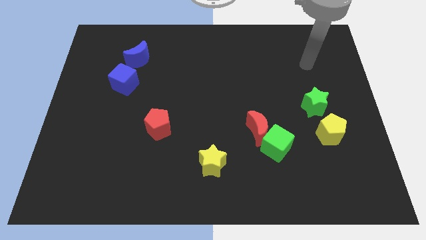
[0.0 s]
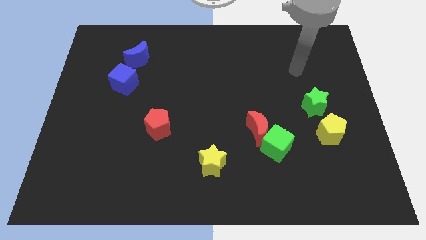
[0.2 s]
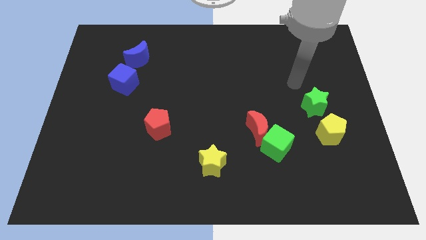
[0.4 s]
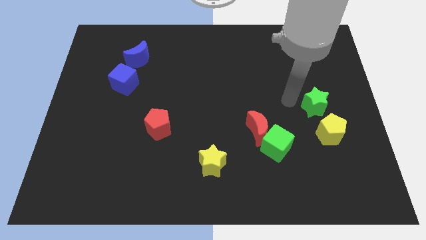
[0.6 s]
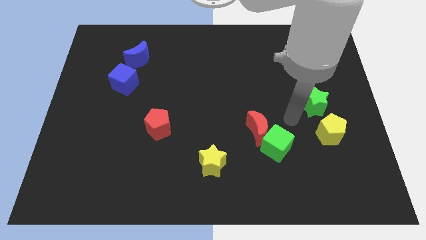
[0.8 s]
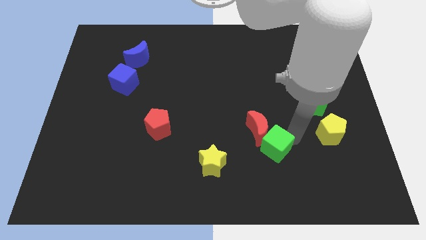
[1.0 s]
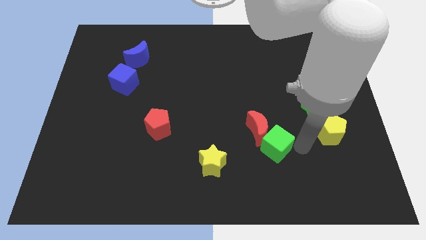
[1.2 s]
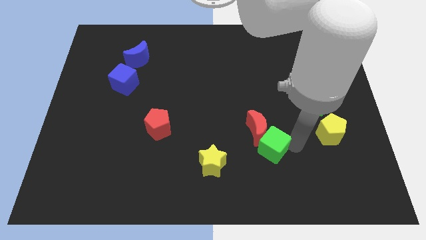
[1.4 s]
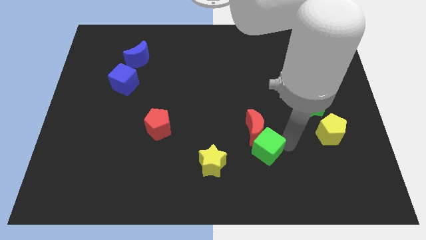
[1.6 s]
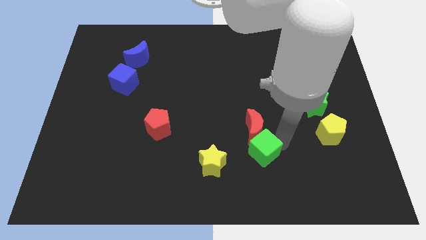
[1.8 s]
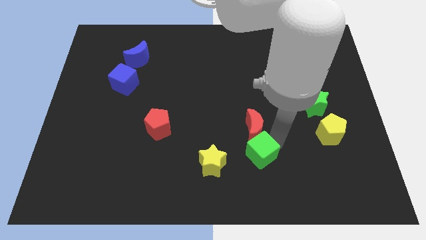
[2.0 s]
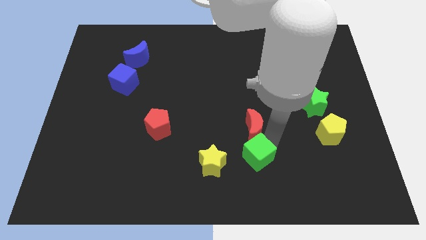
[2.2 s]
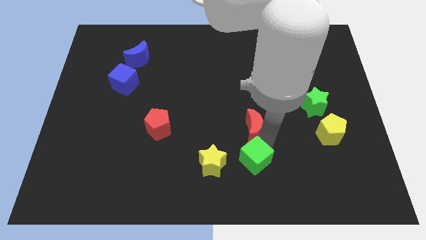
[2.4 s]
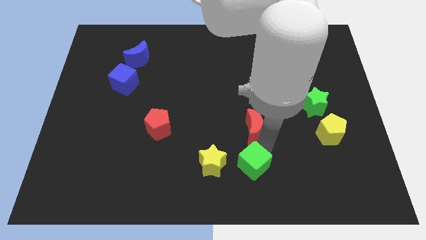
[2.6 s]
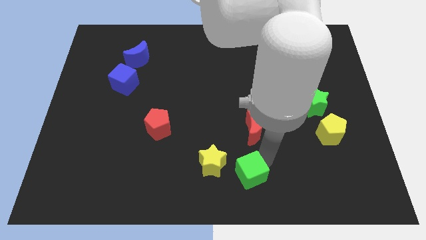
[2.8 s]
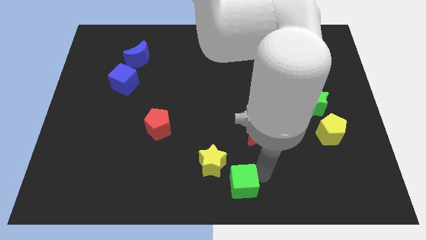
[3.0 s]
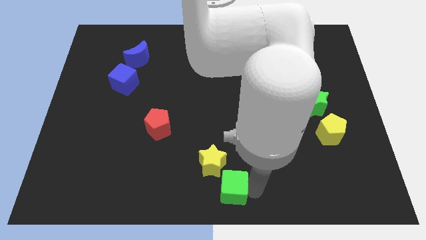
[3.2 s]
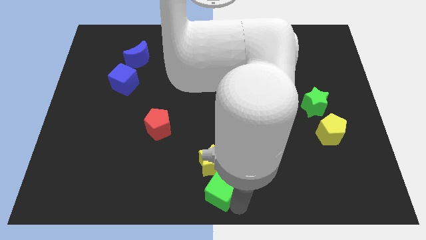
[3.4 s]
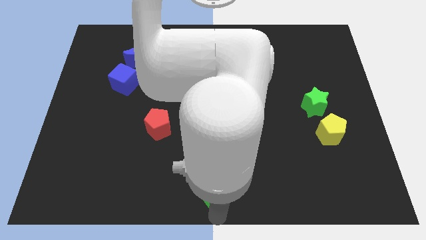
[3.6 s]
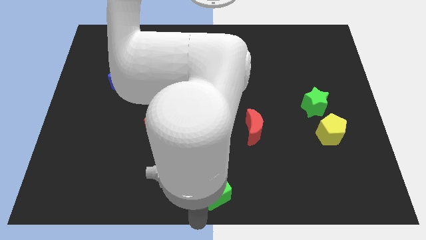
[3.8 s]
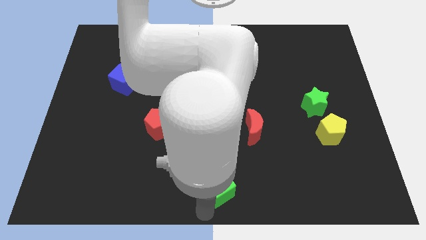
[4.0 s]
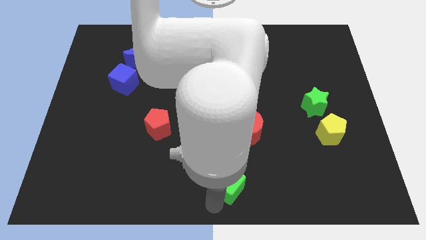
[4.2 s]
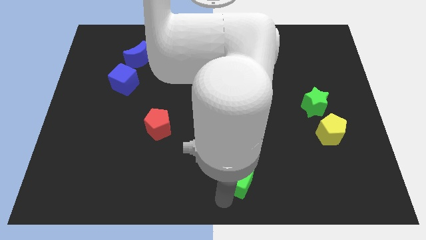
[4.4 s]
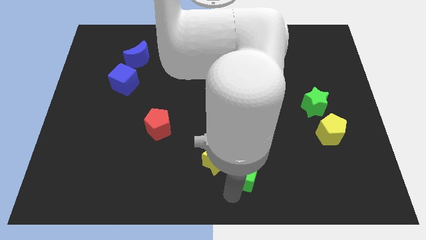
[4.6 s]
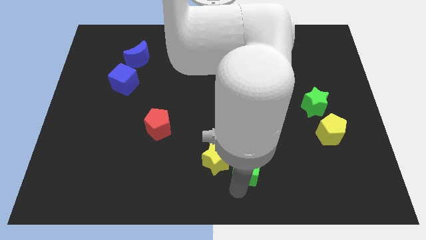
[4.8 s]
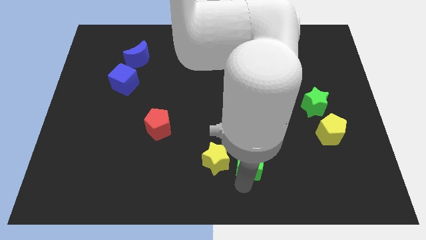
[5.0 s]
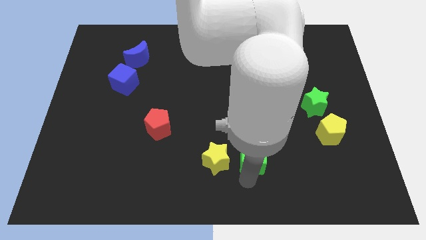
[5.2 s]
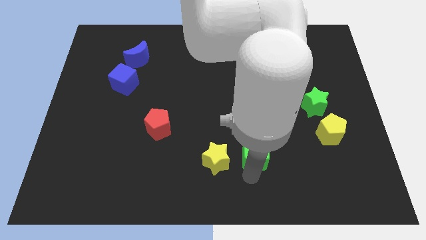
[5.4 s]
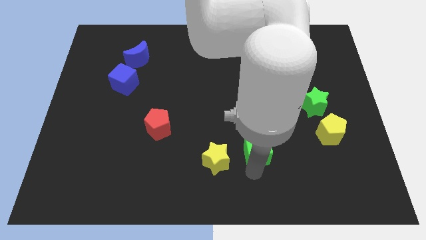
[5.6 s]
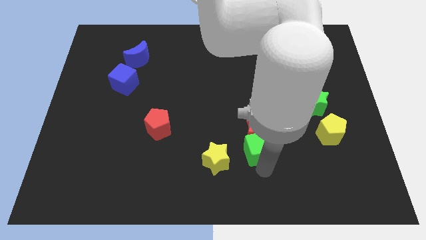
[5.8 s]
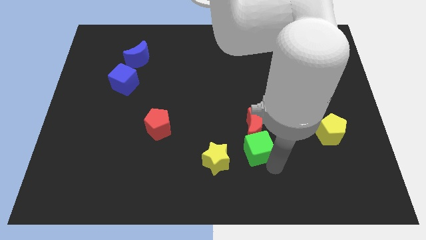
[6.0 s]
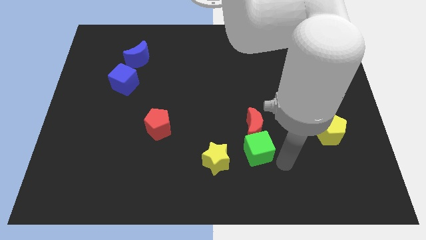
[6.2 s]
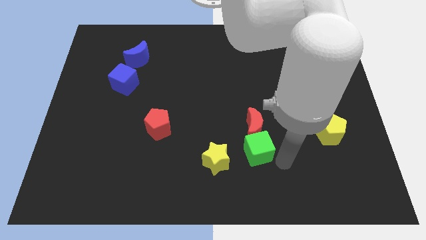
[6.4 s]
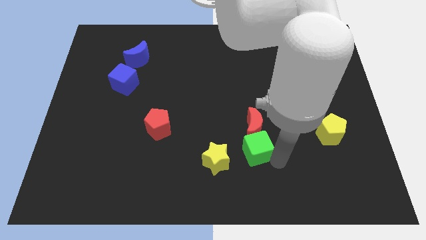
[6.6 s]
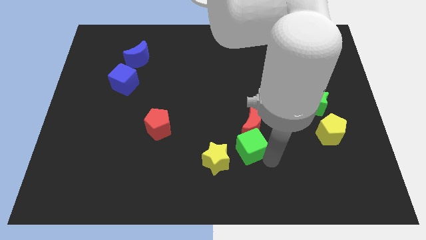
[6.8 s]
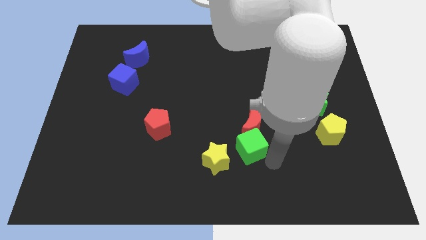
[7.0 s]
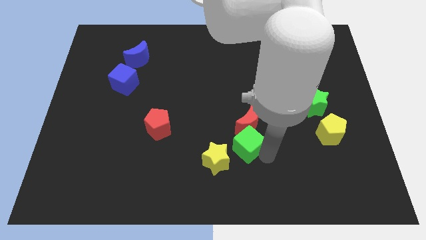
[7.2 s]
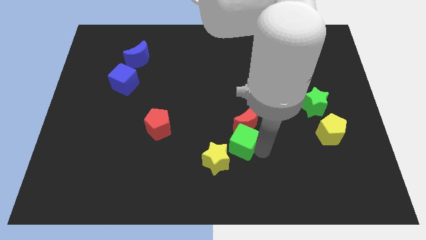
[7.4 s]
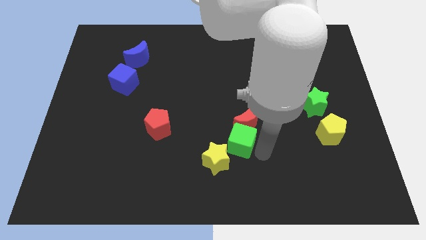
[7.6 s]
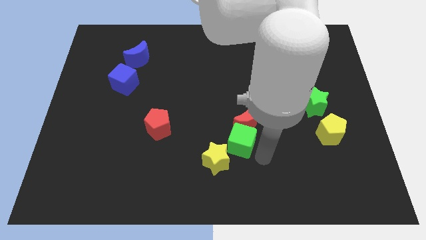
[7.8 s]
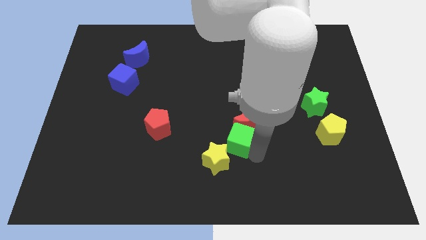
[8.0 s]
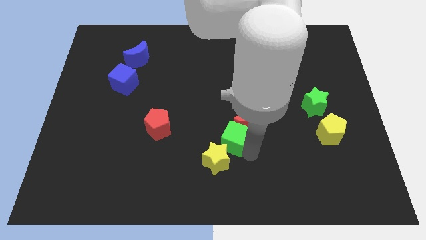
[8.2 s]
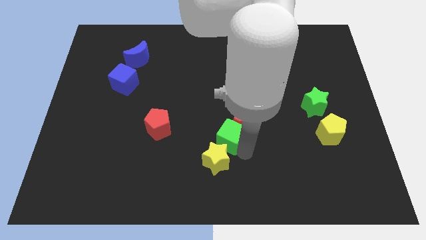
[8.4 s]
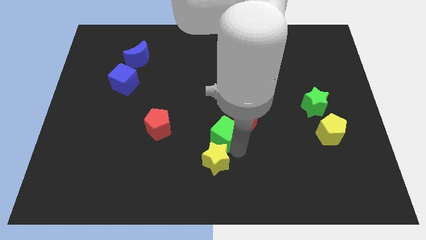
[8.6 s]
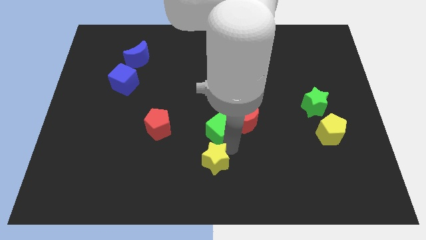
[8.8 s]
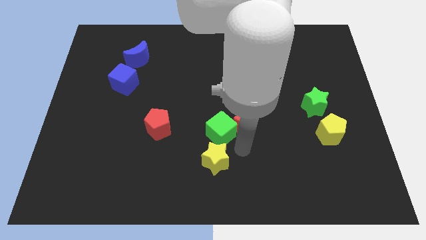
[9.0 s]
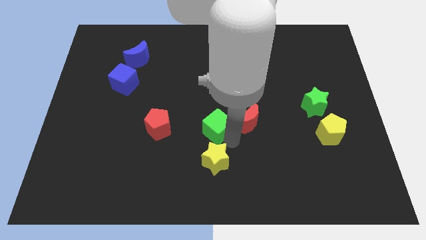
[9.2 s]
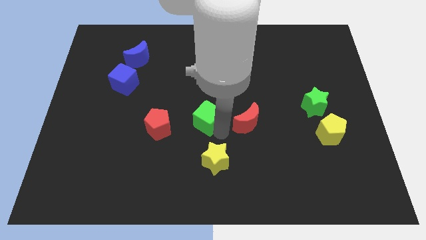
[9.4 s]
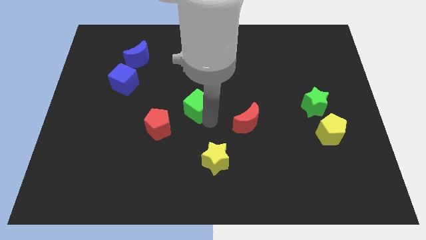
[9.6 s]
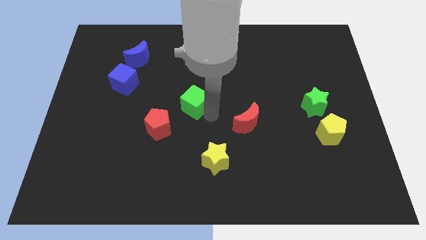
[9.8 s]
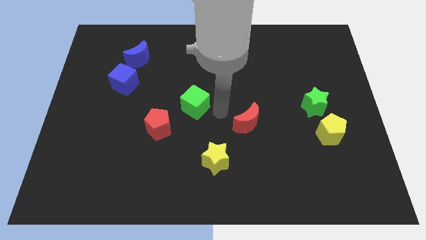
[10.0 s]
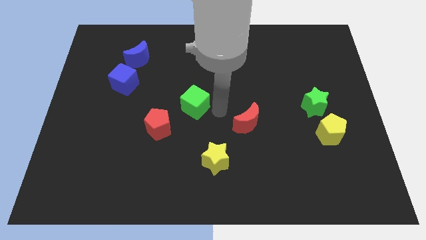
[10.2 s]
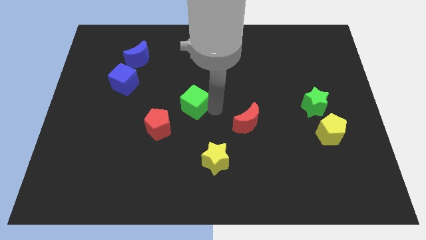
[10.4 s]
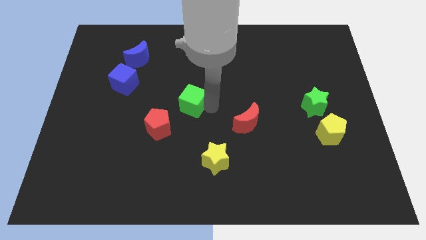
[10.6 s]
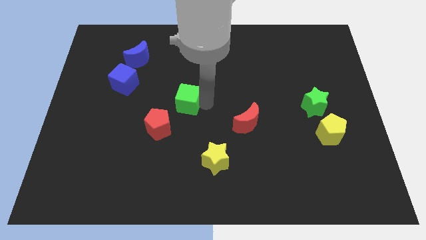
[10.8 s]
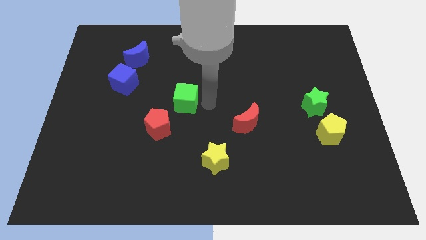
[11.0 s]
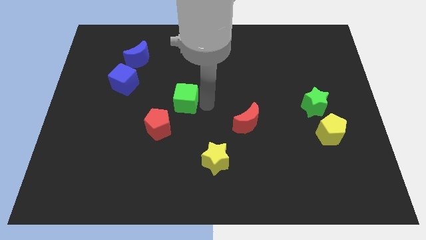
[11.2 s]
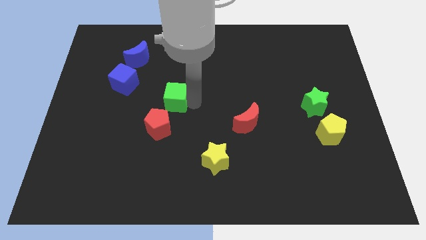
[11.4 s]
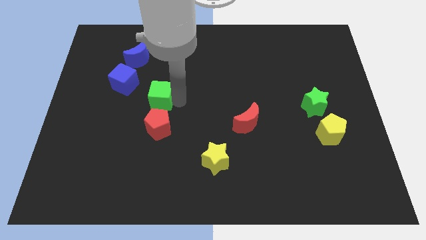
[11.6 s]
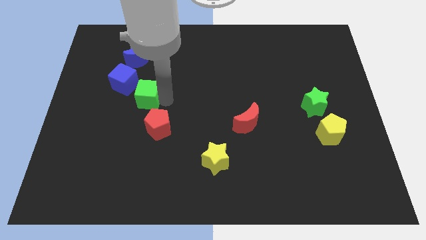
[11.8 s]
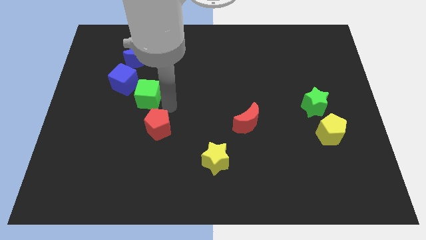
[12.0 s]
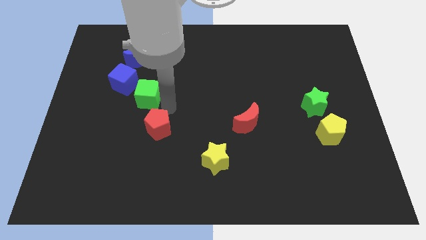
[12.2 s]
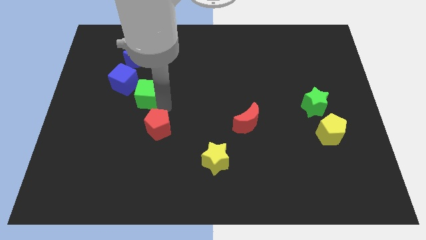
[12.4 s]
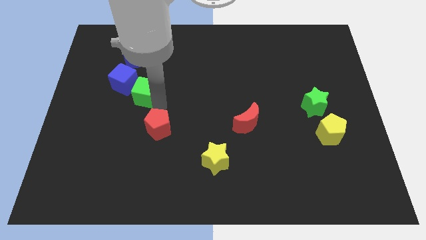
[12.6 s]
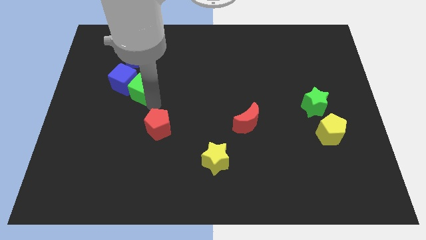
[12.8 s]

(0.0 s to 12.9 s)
slide the green cube to the blue cube

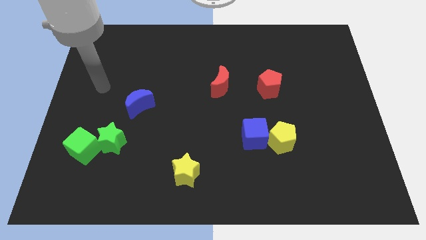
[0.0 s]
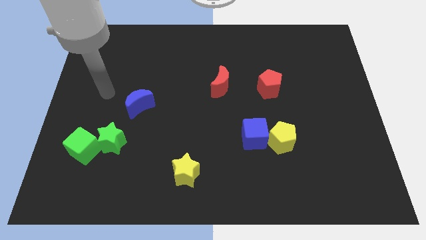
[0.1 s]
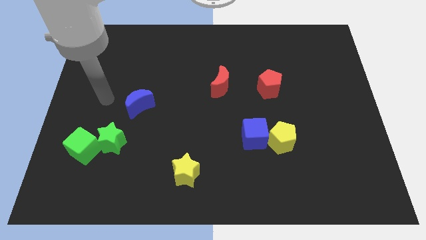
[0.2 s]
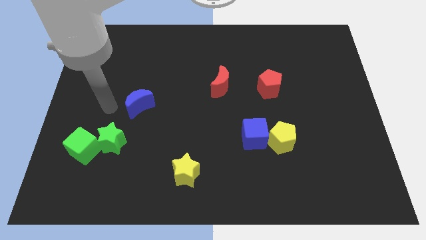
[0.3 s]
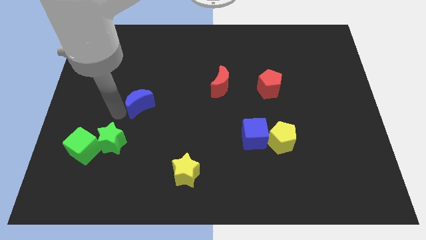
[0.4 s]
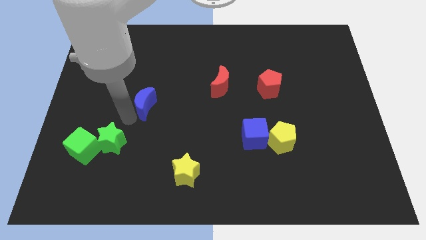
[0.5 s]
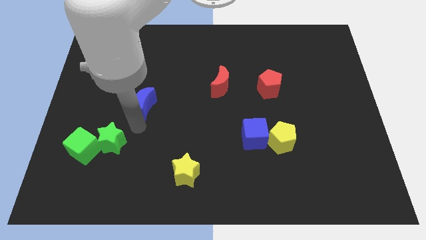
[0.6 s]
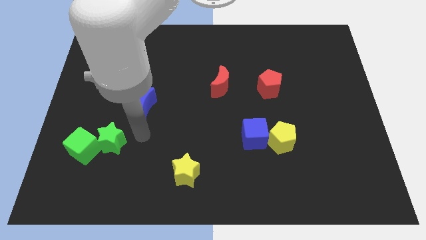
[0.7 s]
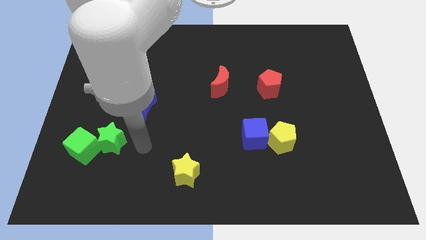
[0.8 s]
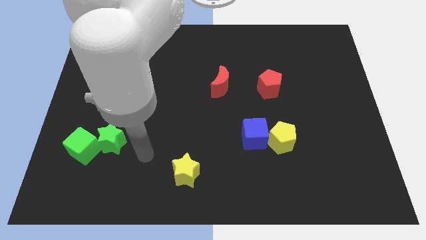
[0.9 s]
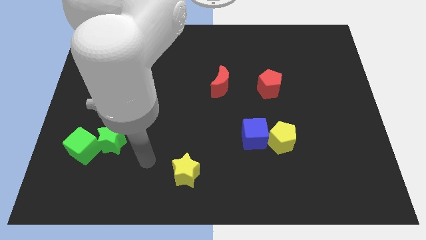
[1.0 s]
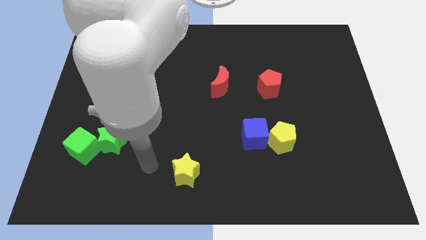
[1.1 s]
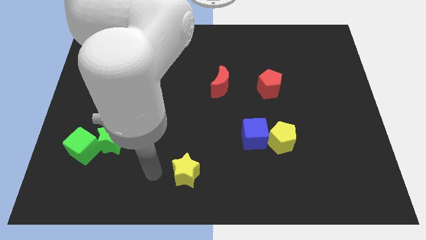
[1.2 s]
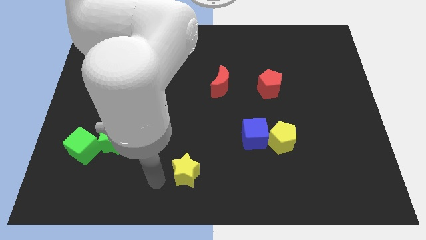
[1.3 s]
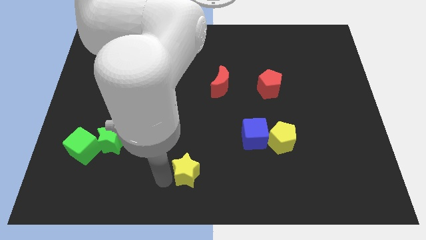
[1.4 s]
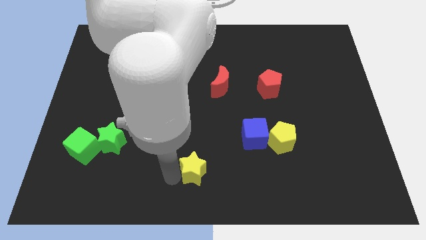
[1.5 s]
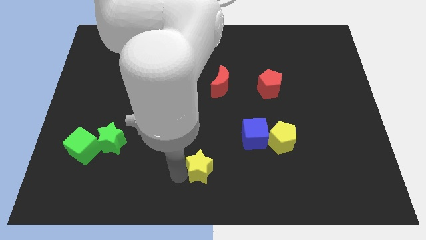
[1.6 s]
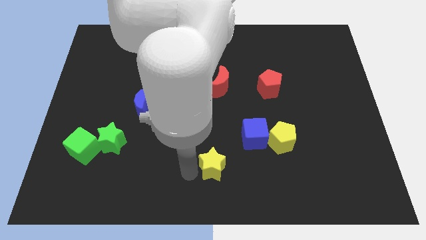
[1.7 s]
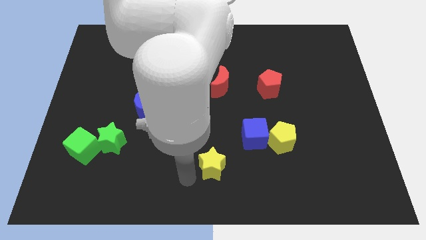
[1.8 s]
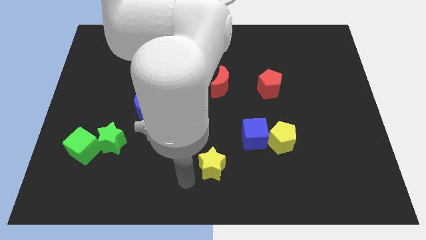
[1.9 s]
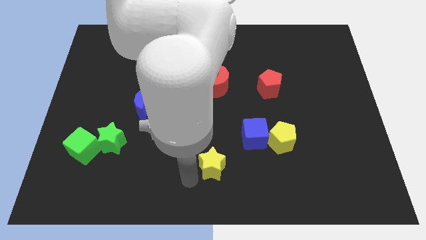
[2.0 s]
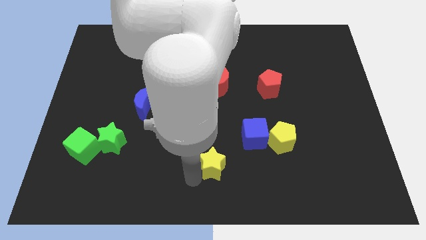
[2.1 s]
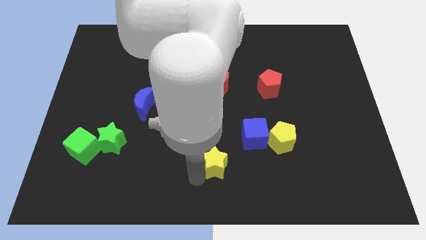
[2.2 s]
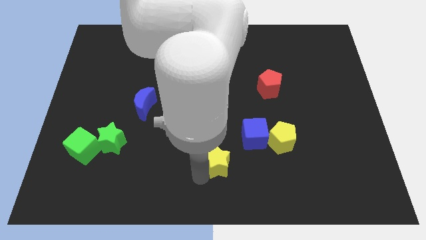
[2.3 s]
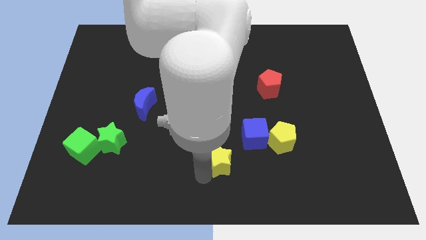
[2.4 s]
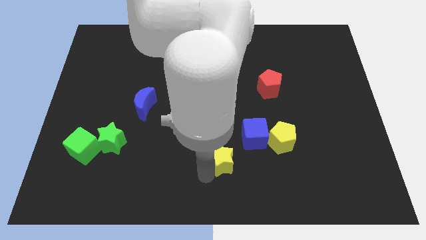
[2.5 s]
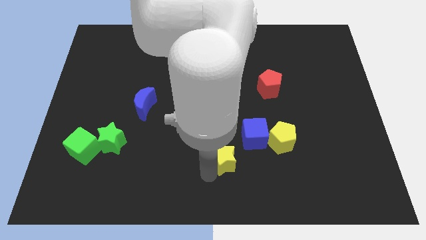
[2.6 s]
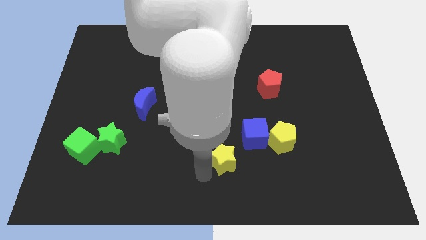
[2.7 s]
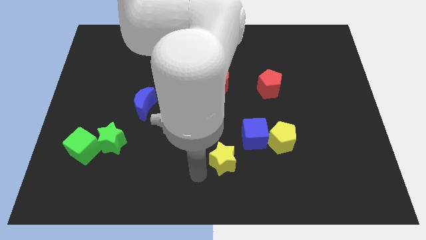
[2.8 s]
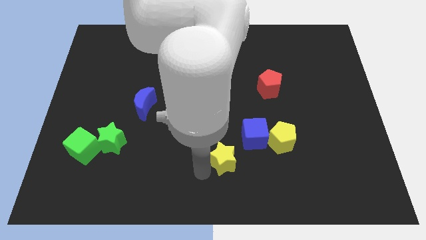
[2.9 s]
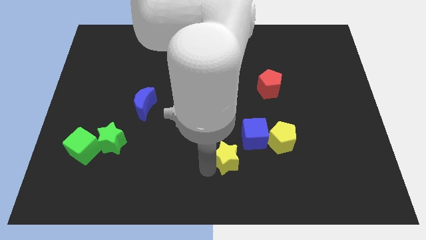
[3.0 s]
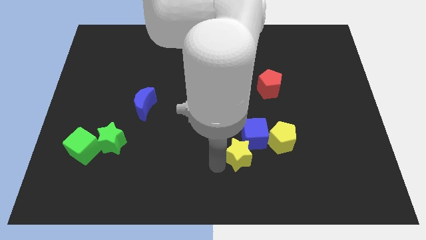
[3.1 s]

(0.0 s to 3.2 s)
put the yellow star to the blue cube
